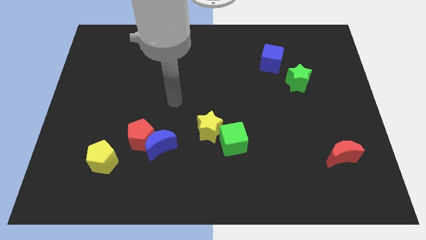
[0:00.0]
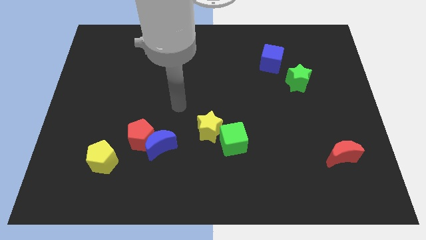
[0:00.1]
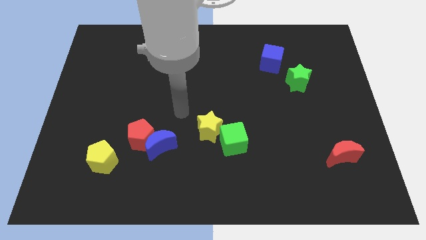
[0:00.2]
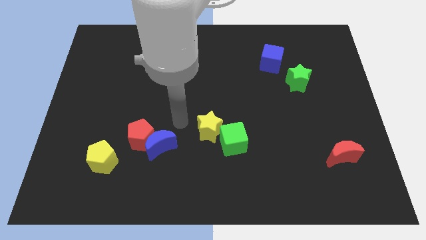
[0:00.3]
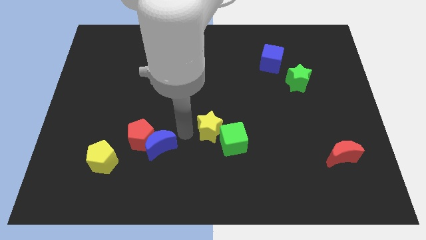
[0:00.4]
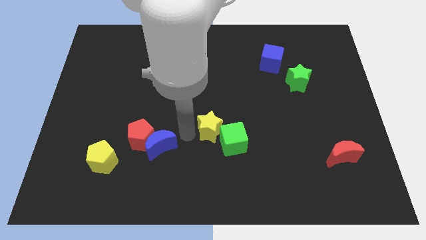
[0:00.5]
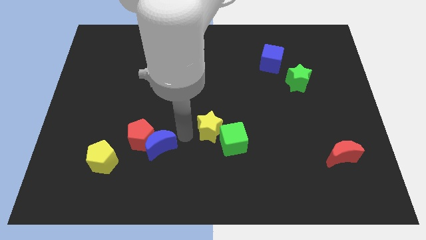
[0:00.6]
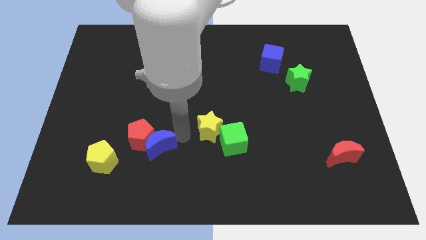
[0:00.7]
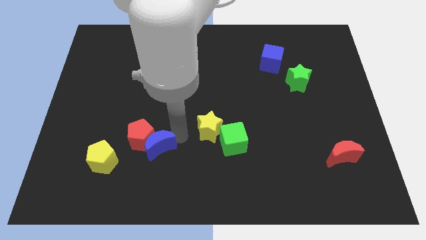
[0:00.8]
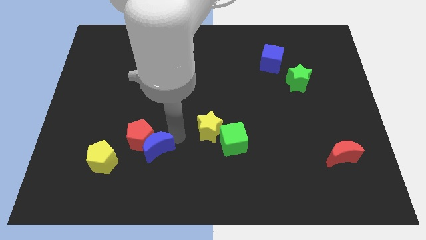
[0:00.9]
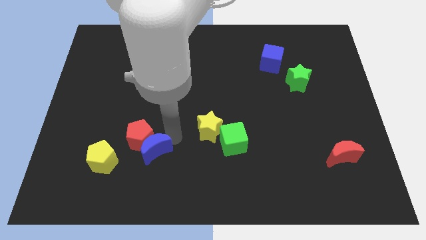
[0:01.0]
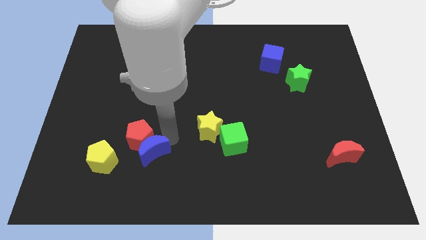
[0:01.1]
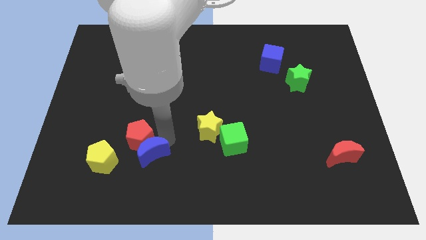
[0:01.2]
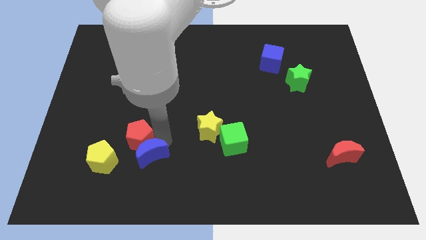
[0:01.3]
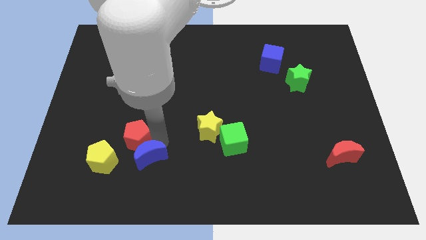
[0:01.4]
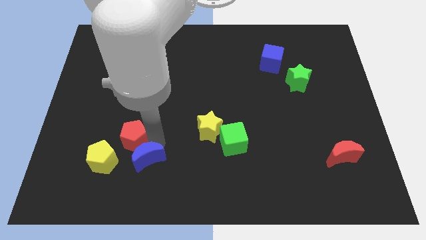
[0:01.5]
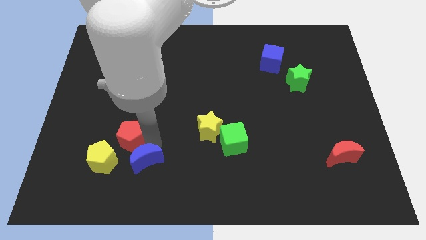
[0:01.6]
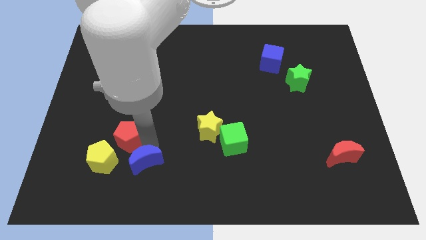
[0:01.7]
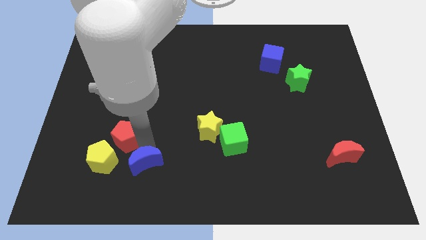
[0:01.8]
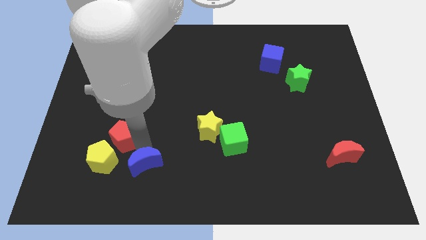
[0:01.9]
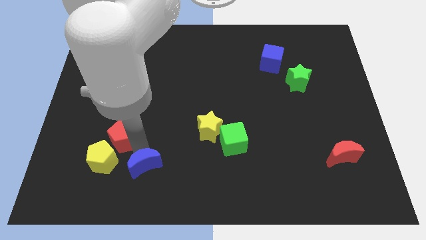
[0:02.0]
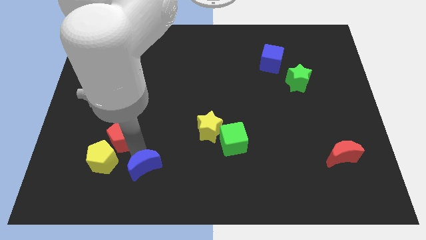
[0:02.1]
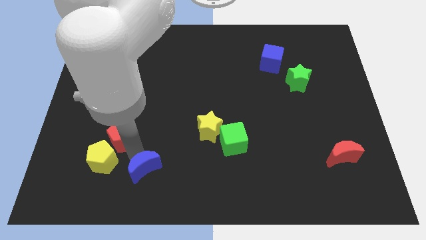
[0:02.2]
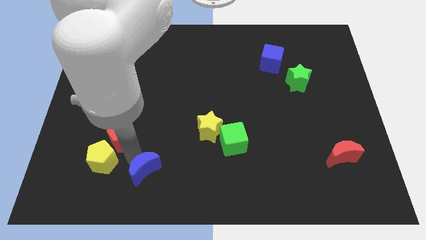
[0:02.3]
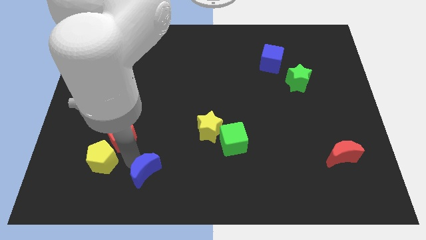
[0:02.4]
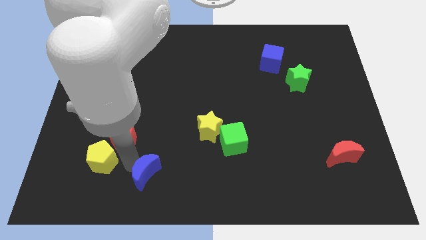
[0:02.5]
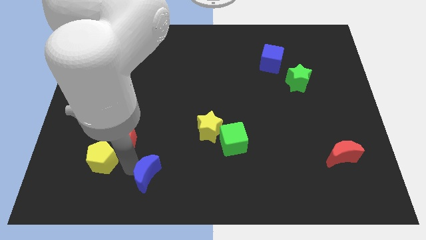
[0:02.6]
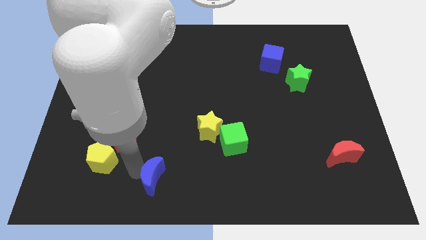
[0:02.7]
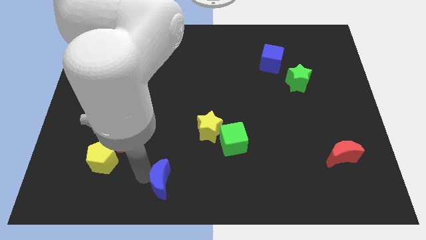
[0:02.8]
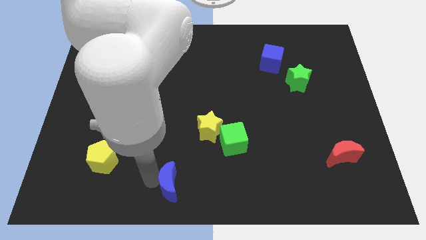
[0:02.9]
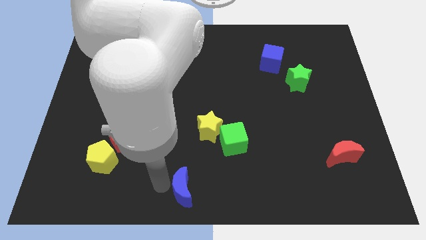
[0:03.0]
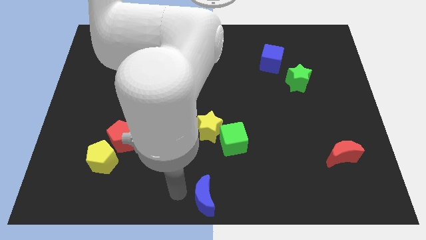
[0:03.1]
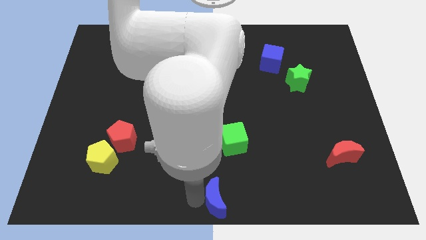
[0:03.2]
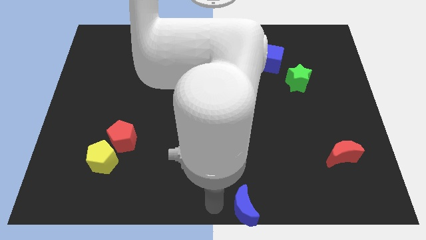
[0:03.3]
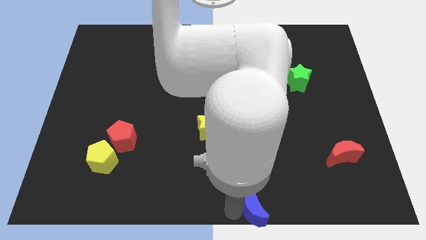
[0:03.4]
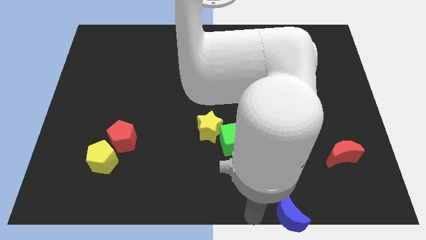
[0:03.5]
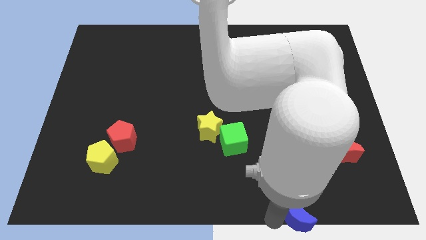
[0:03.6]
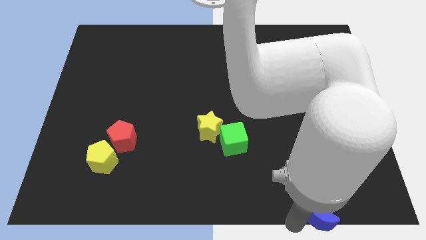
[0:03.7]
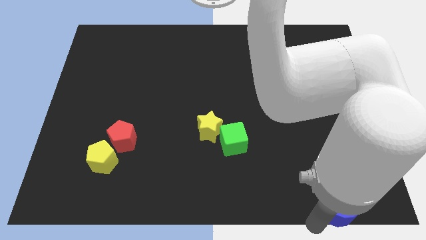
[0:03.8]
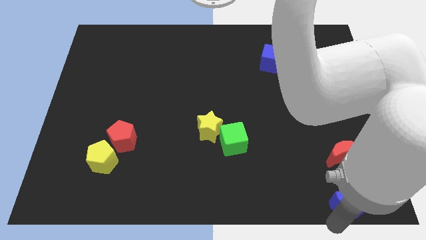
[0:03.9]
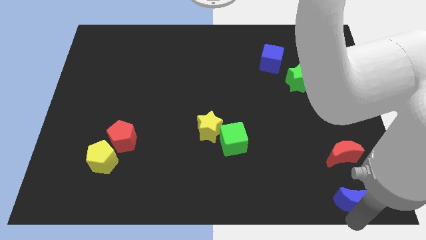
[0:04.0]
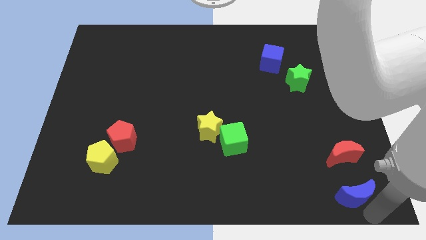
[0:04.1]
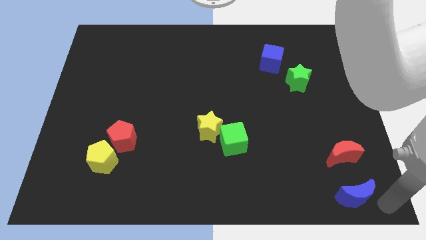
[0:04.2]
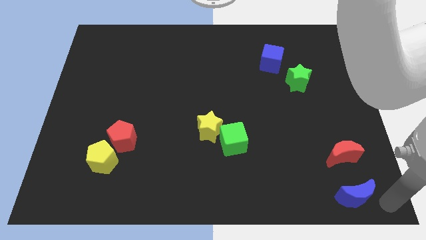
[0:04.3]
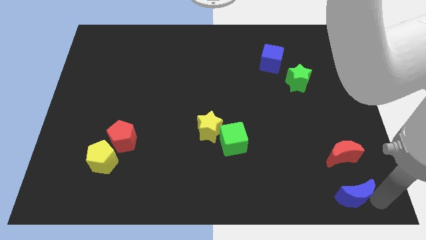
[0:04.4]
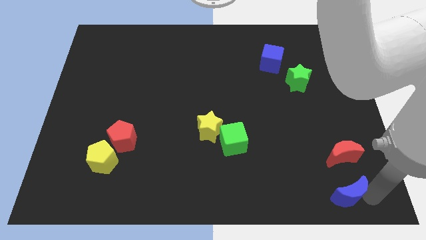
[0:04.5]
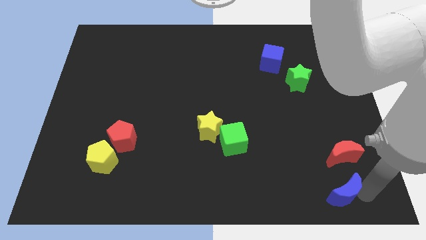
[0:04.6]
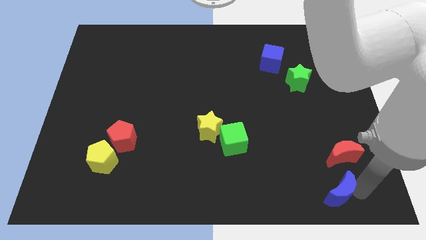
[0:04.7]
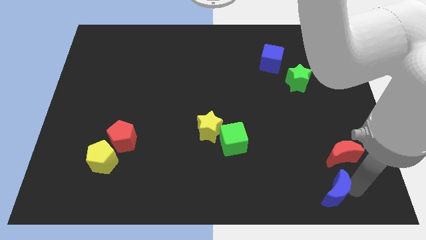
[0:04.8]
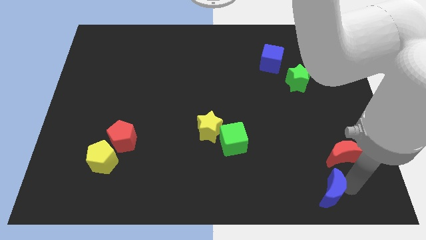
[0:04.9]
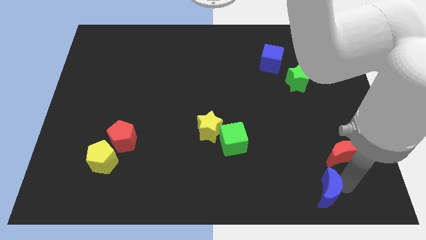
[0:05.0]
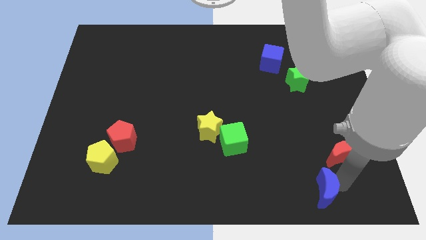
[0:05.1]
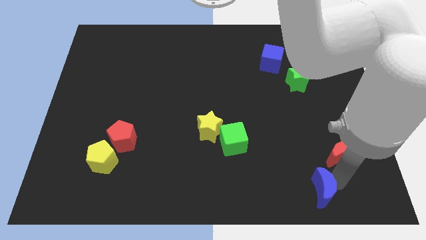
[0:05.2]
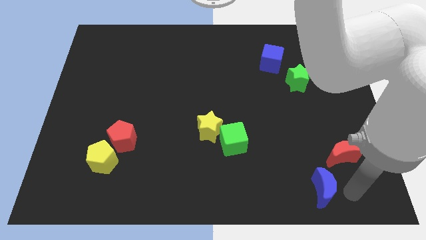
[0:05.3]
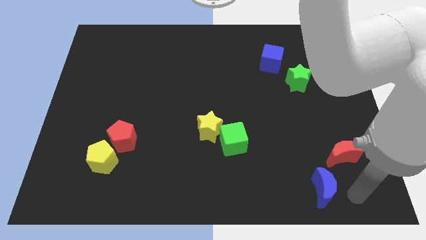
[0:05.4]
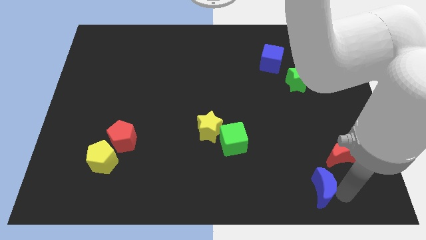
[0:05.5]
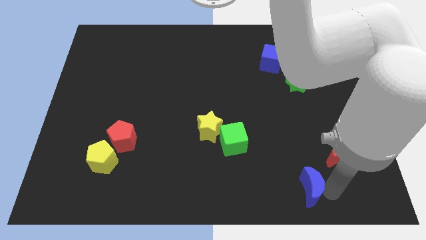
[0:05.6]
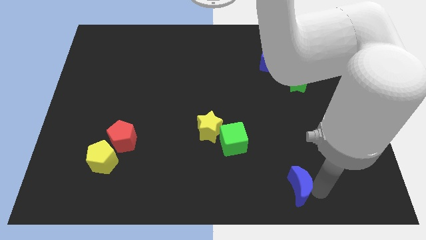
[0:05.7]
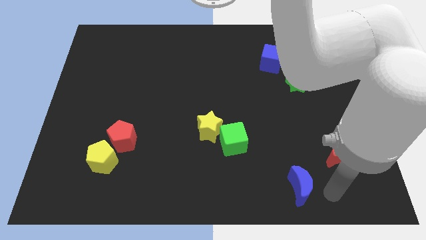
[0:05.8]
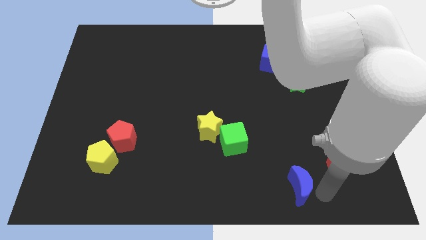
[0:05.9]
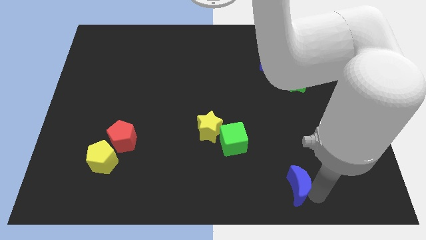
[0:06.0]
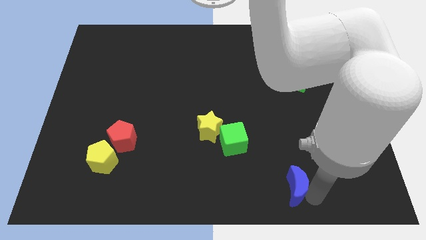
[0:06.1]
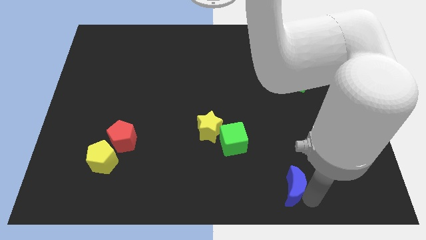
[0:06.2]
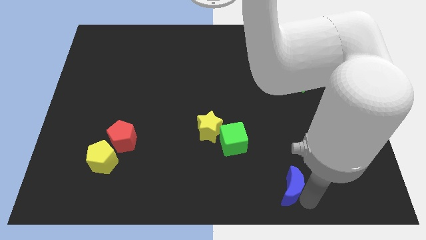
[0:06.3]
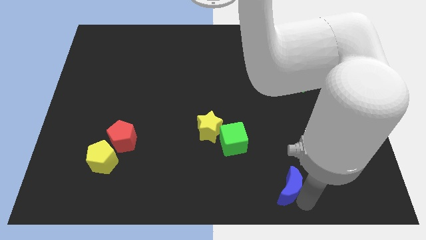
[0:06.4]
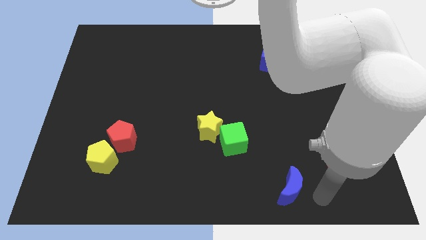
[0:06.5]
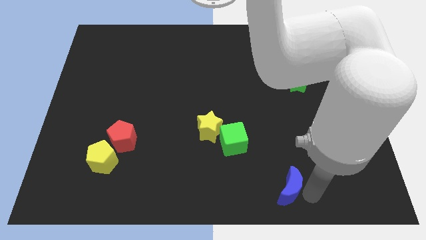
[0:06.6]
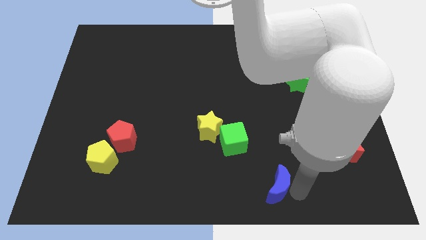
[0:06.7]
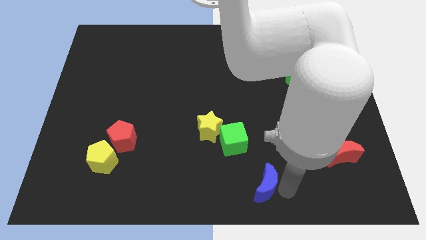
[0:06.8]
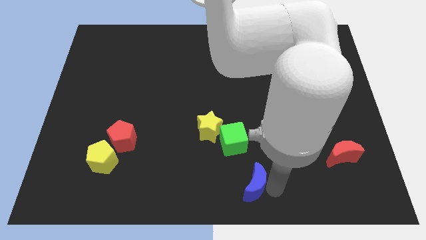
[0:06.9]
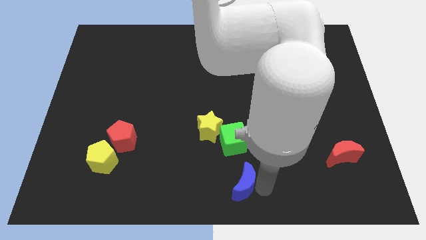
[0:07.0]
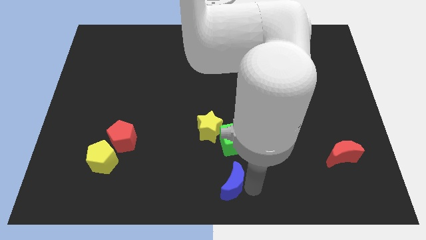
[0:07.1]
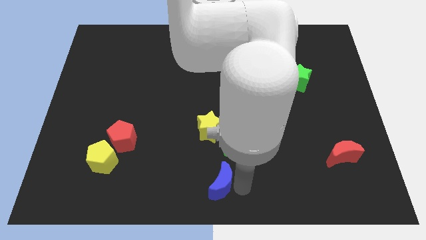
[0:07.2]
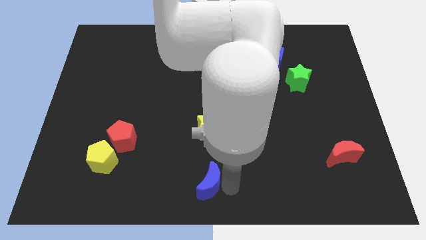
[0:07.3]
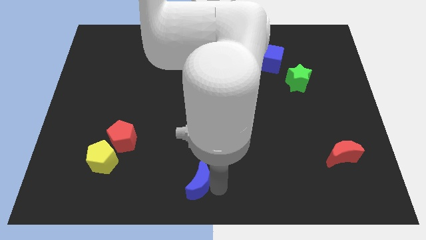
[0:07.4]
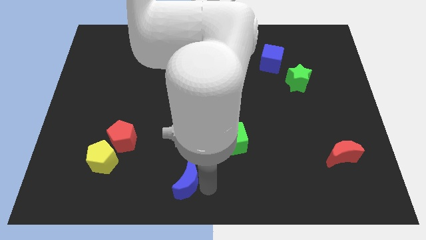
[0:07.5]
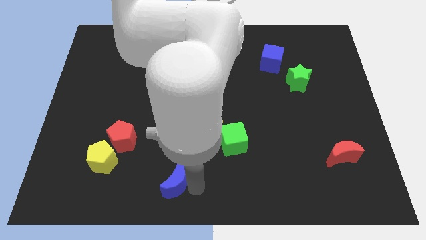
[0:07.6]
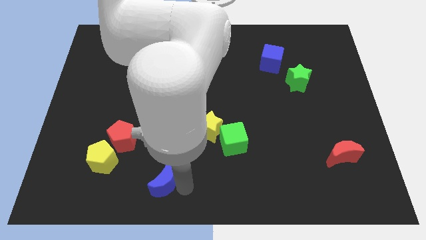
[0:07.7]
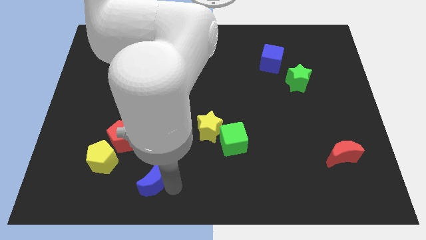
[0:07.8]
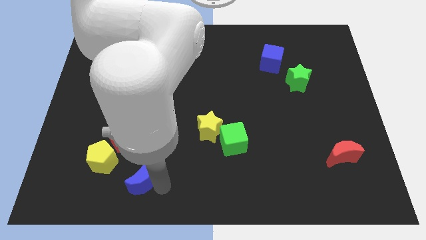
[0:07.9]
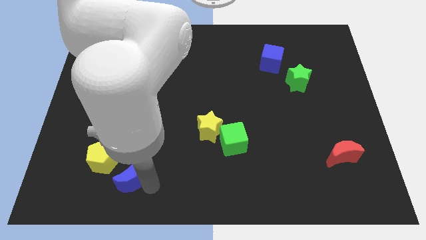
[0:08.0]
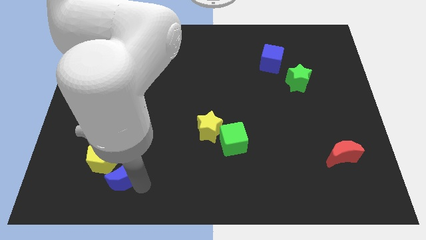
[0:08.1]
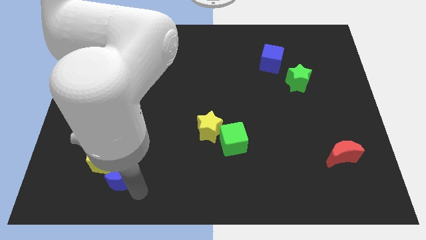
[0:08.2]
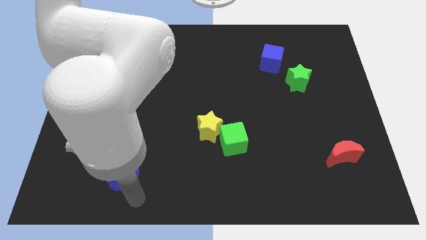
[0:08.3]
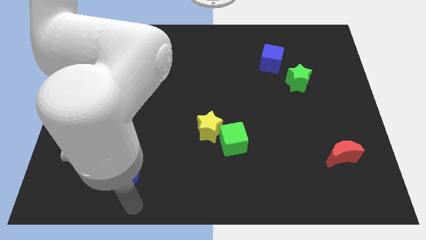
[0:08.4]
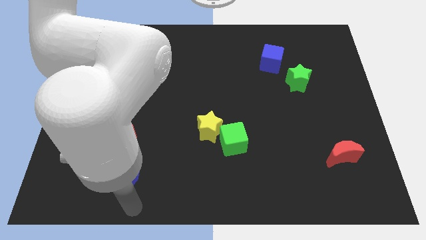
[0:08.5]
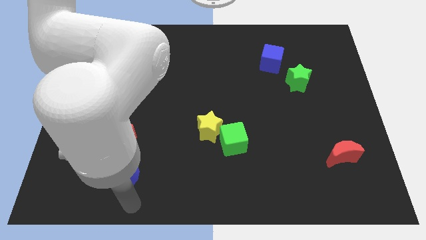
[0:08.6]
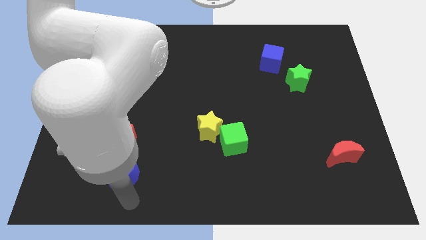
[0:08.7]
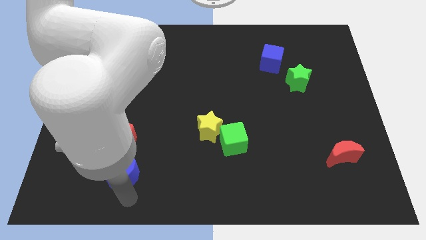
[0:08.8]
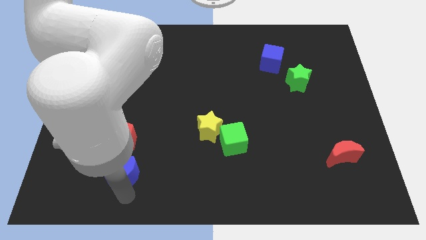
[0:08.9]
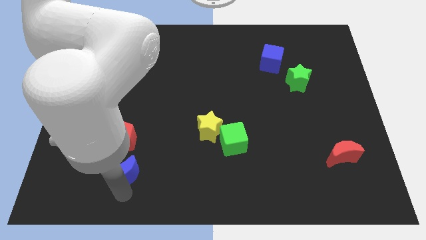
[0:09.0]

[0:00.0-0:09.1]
slide the blue moon close to the yellow pentagon
